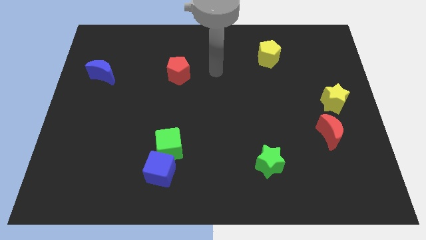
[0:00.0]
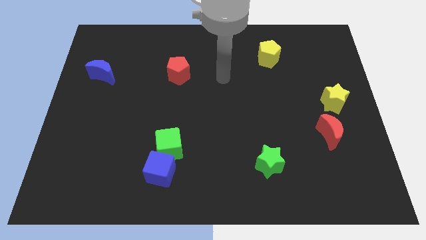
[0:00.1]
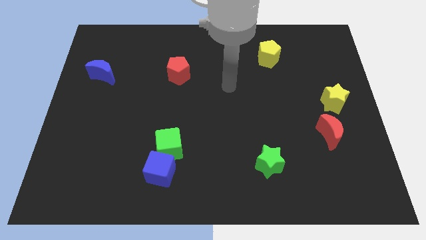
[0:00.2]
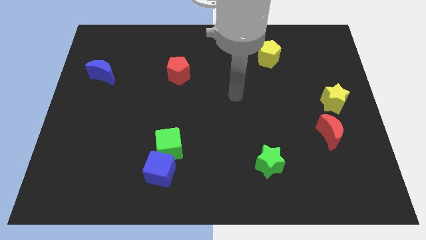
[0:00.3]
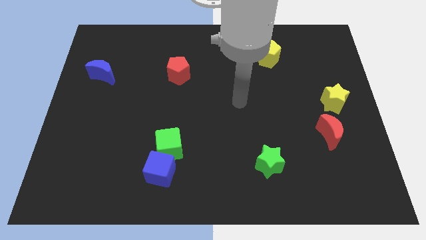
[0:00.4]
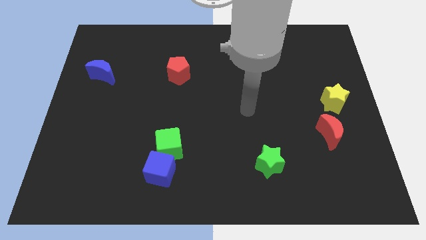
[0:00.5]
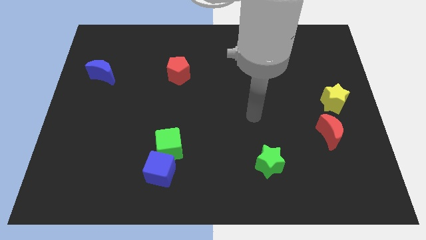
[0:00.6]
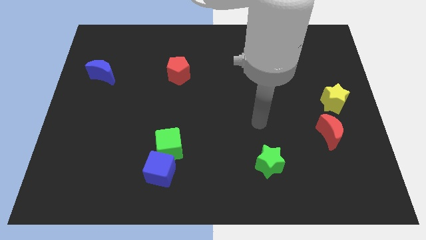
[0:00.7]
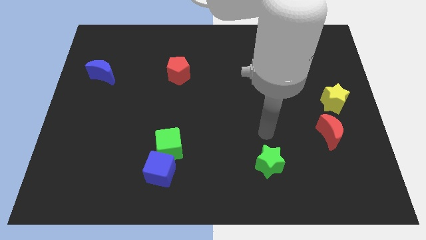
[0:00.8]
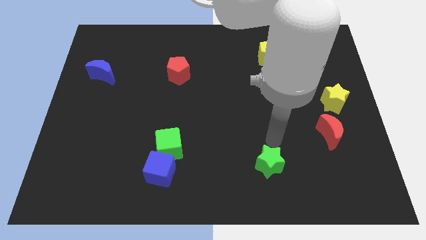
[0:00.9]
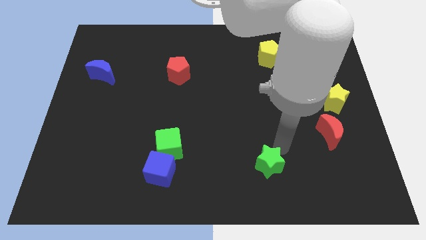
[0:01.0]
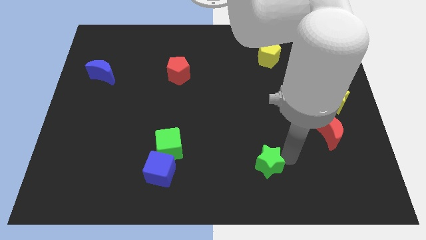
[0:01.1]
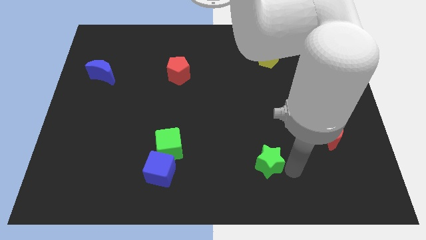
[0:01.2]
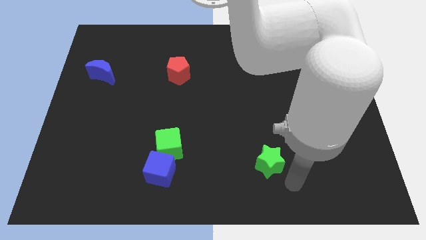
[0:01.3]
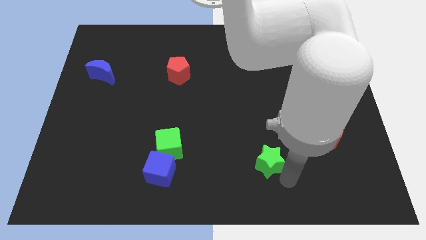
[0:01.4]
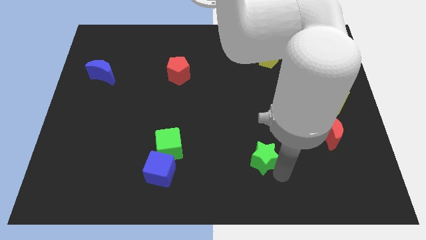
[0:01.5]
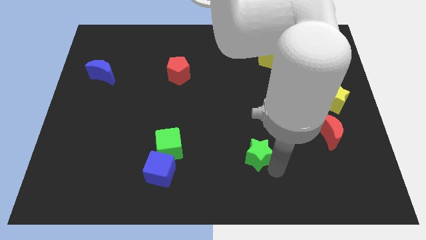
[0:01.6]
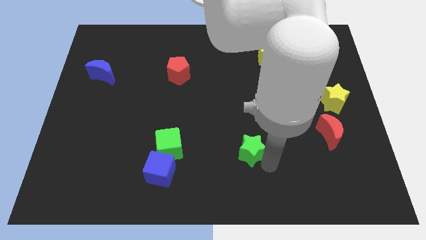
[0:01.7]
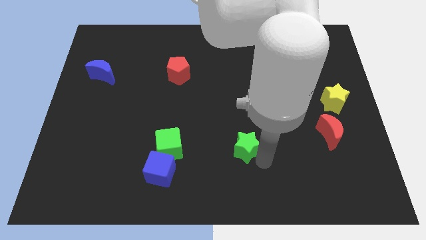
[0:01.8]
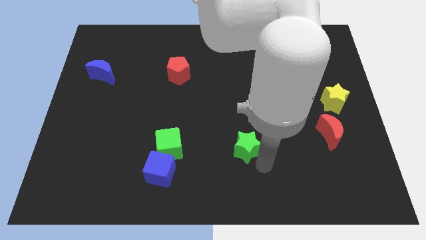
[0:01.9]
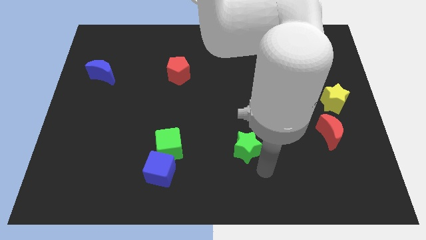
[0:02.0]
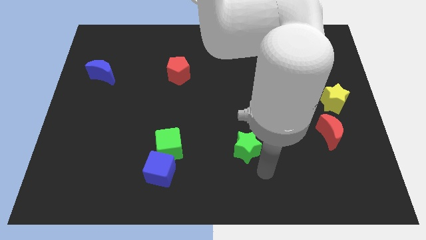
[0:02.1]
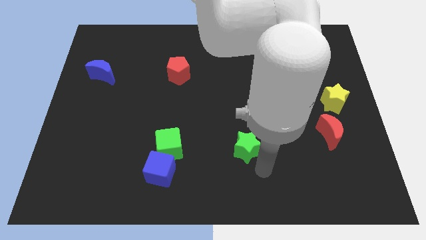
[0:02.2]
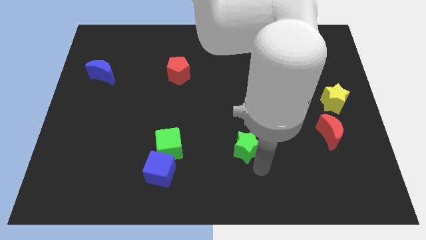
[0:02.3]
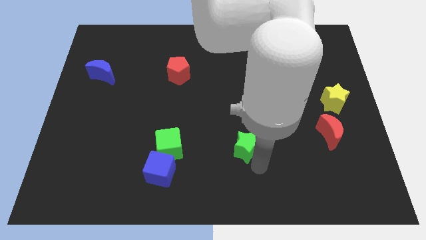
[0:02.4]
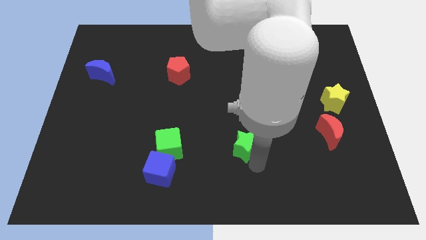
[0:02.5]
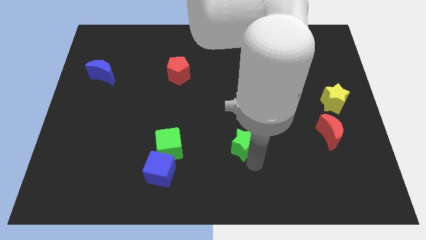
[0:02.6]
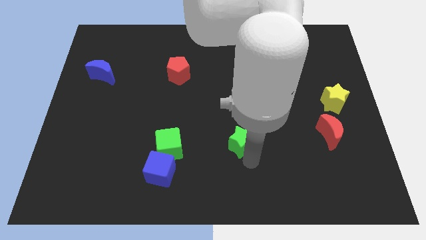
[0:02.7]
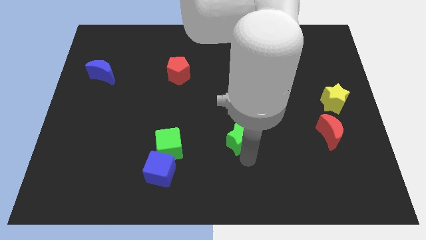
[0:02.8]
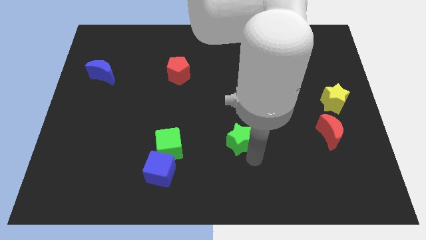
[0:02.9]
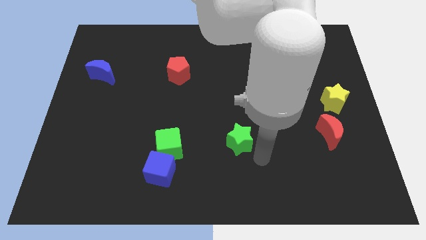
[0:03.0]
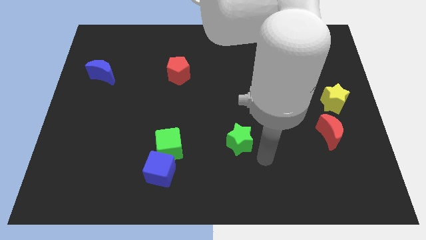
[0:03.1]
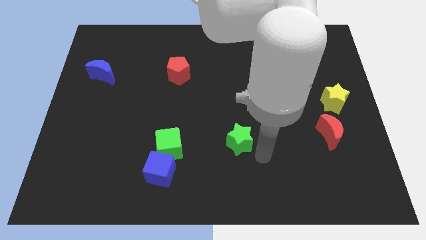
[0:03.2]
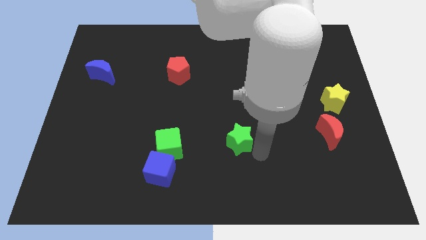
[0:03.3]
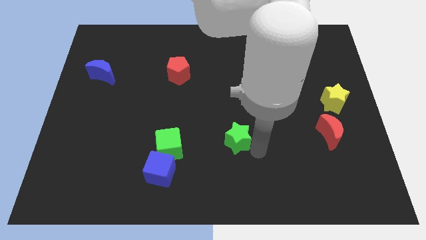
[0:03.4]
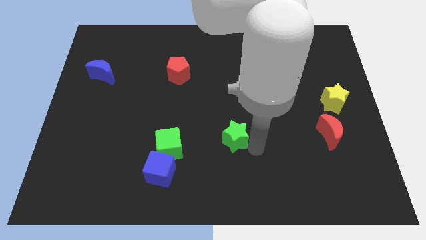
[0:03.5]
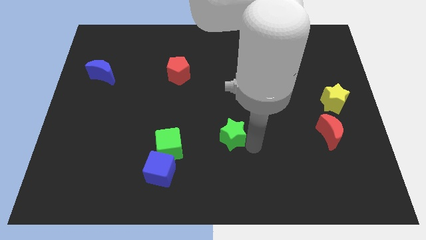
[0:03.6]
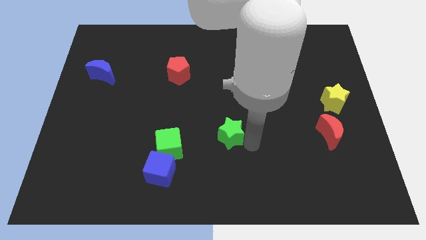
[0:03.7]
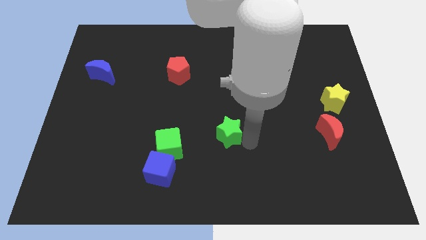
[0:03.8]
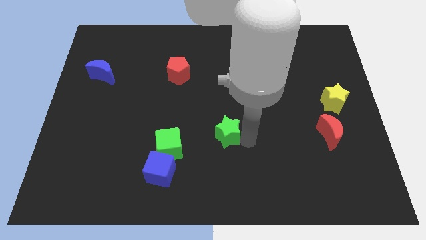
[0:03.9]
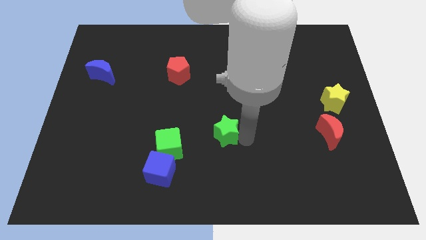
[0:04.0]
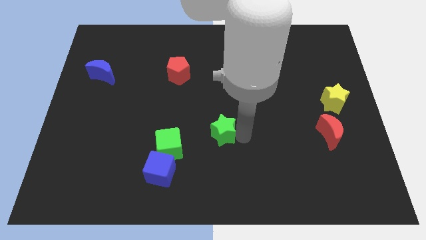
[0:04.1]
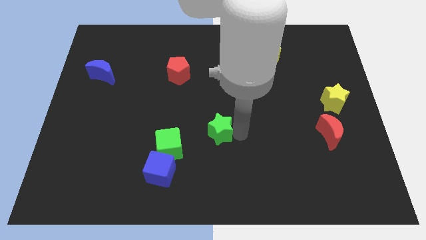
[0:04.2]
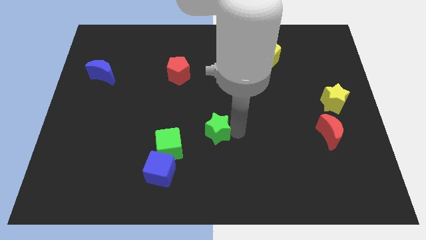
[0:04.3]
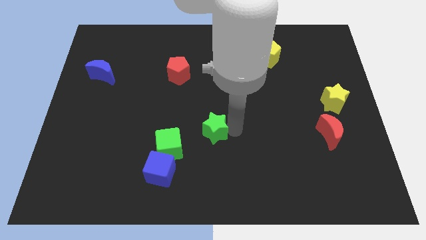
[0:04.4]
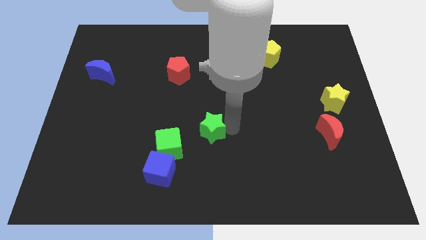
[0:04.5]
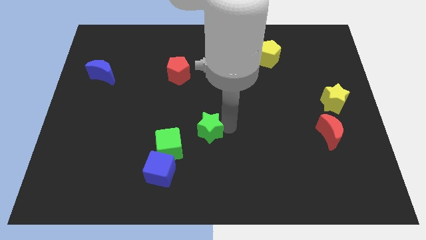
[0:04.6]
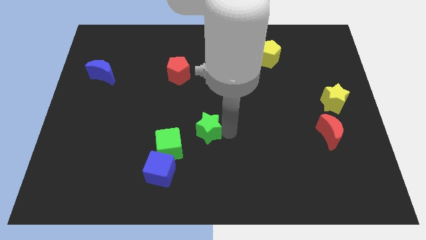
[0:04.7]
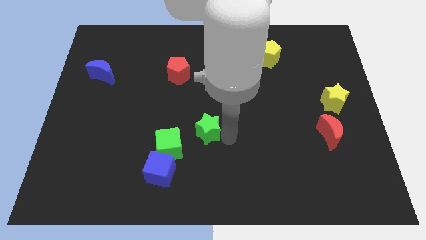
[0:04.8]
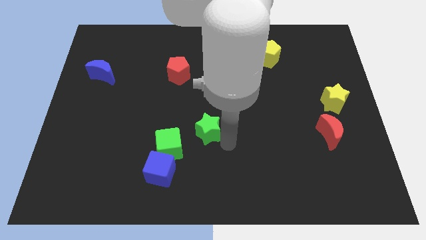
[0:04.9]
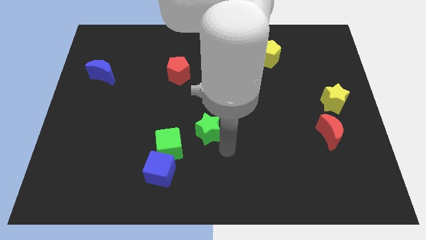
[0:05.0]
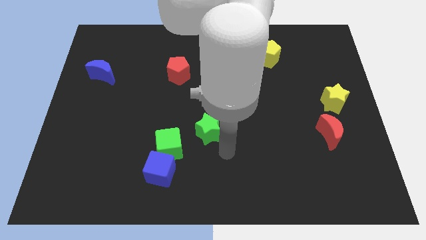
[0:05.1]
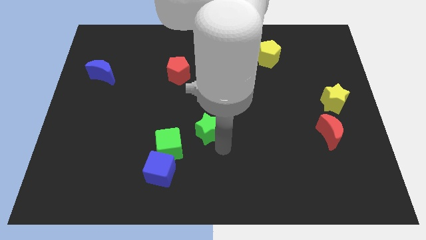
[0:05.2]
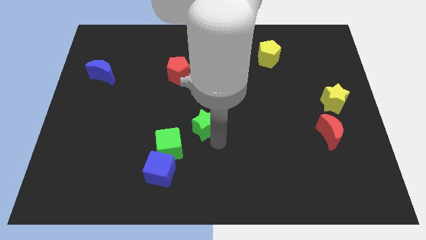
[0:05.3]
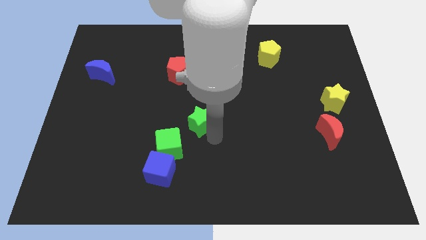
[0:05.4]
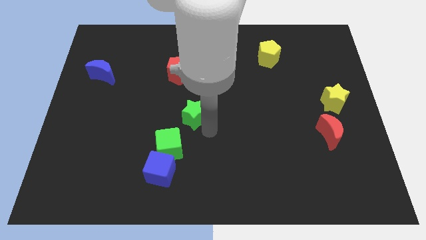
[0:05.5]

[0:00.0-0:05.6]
move the green star to the bottom side of the red pentagon

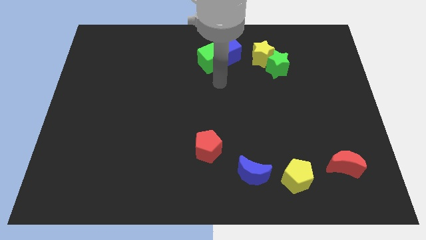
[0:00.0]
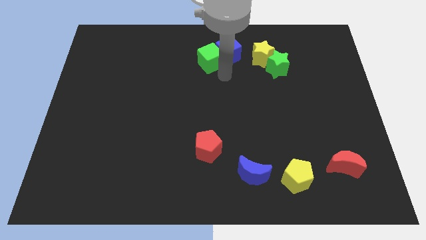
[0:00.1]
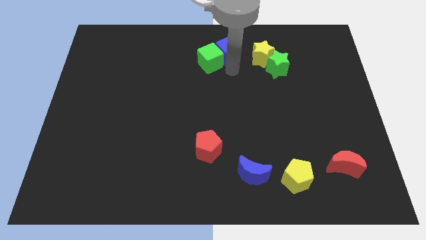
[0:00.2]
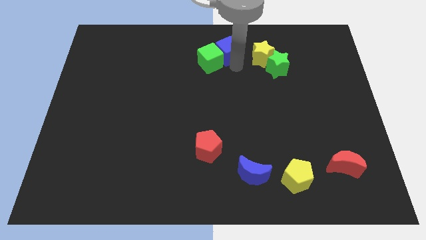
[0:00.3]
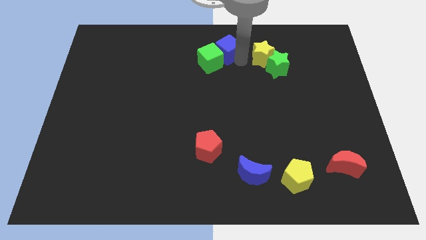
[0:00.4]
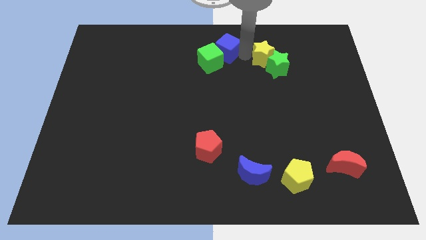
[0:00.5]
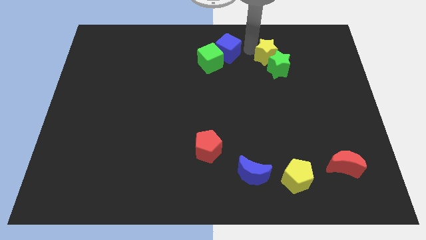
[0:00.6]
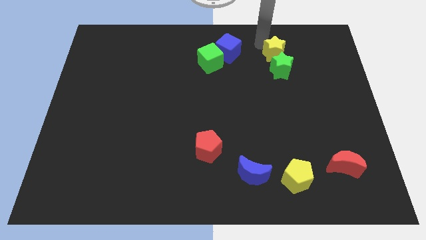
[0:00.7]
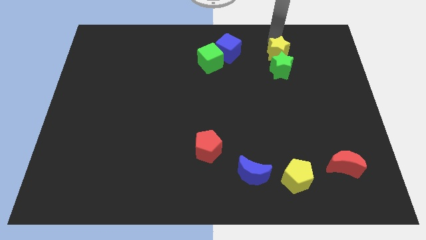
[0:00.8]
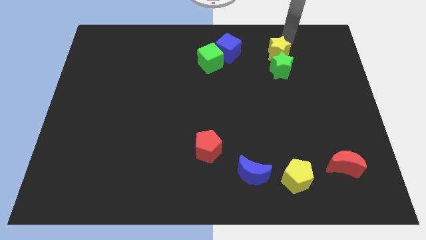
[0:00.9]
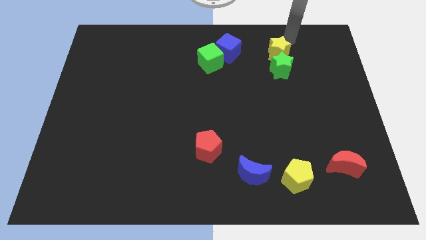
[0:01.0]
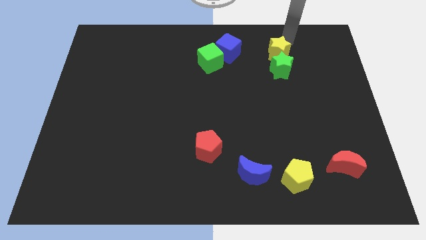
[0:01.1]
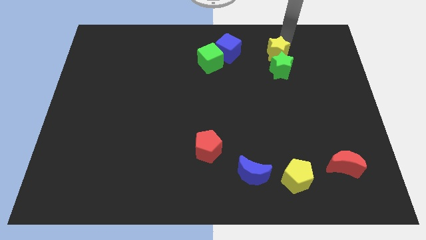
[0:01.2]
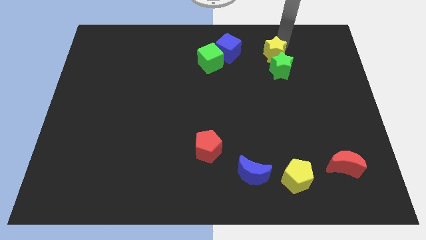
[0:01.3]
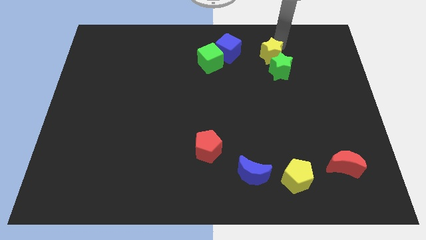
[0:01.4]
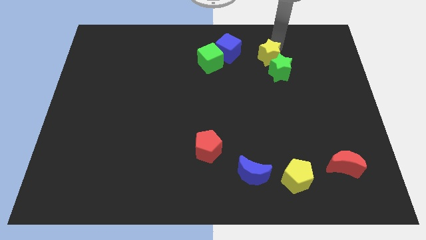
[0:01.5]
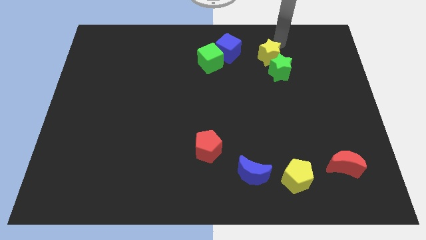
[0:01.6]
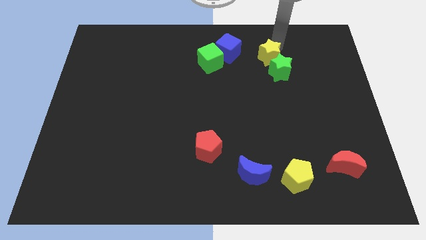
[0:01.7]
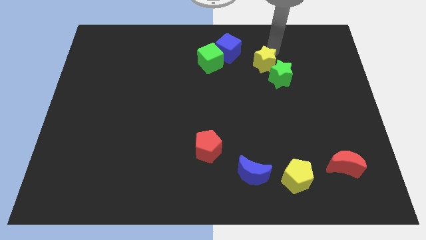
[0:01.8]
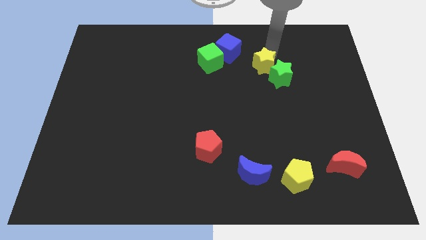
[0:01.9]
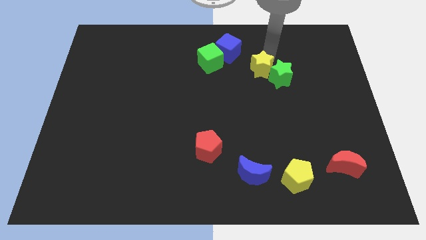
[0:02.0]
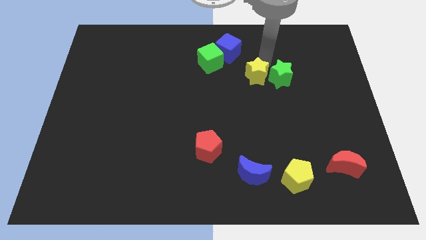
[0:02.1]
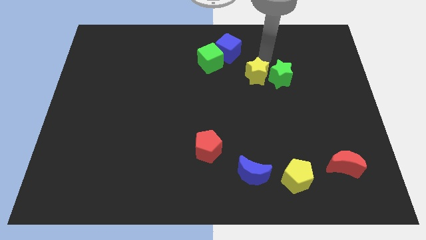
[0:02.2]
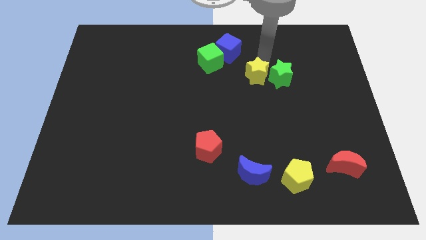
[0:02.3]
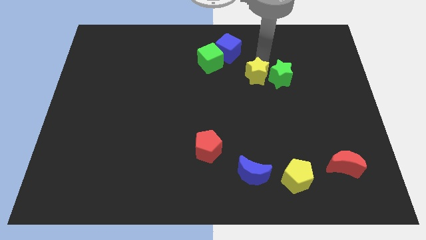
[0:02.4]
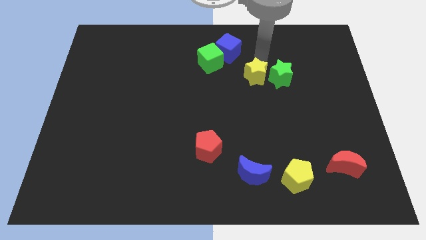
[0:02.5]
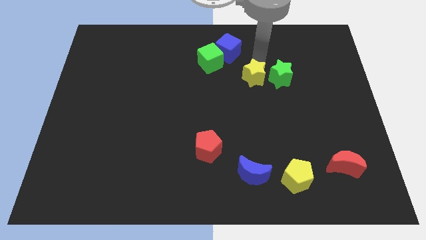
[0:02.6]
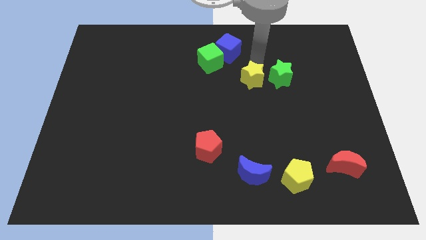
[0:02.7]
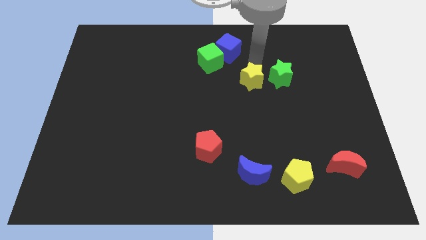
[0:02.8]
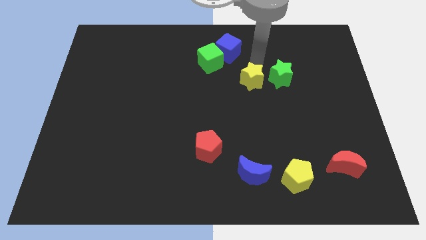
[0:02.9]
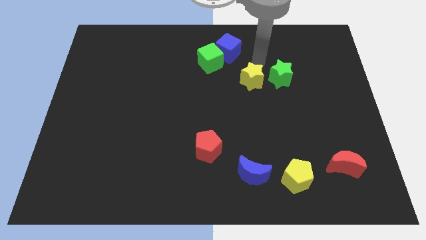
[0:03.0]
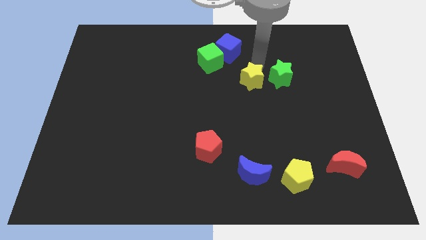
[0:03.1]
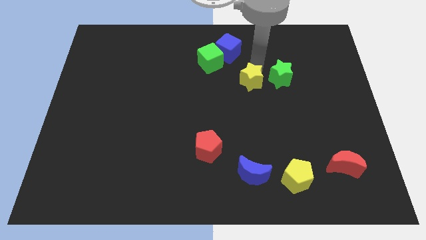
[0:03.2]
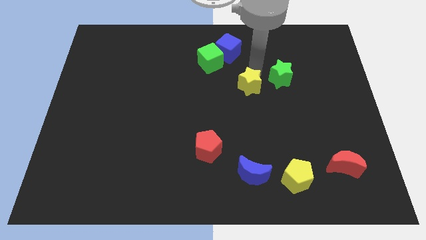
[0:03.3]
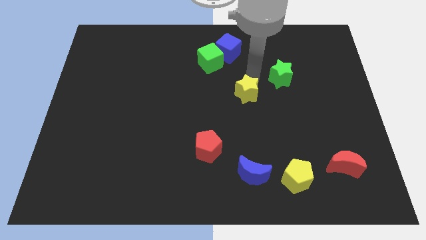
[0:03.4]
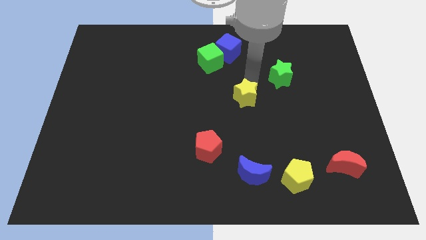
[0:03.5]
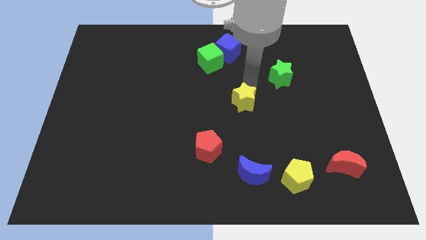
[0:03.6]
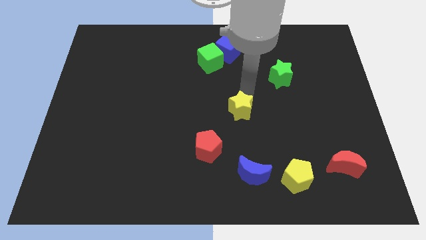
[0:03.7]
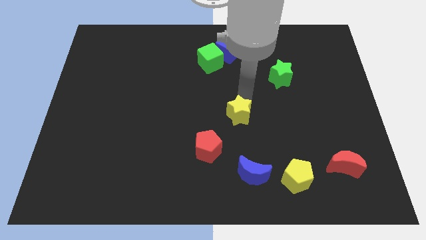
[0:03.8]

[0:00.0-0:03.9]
move the yellow star diagonally up and to the right of the red pentagon
